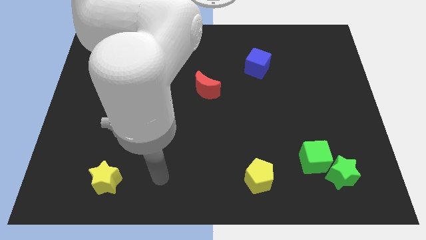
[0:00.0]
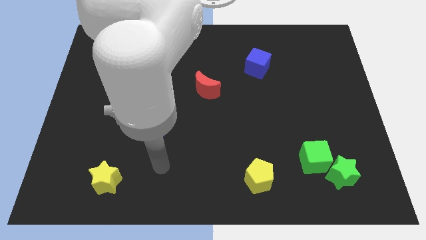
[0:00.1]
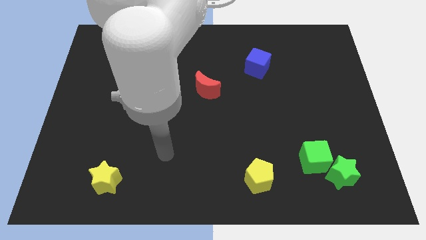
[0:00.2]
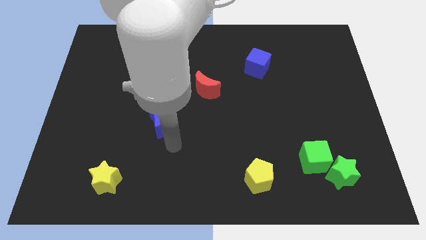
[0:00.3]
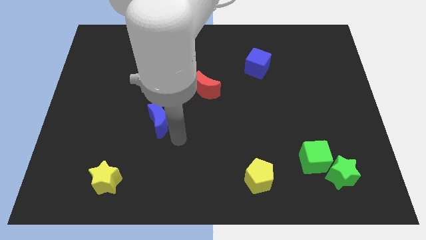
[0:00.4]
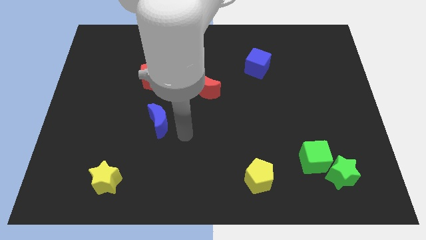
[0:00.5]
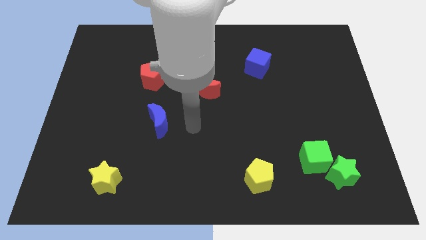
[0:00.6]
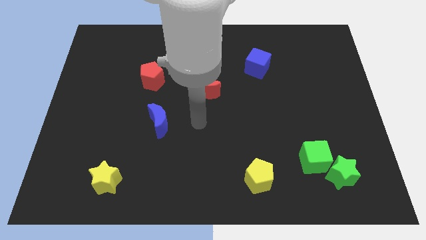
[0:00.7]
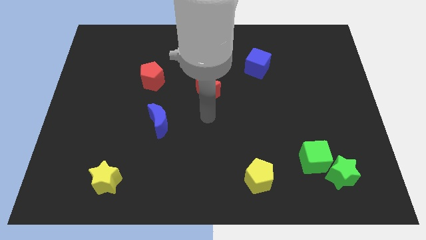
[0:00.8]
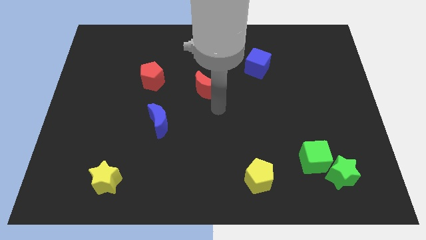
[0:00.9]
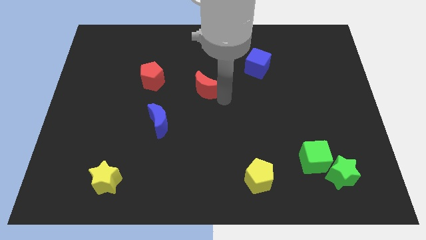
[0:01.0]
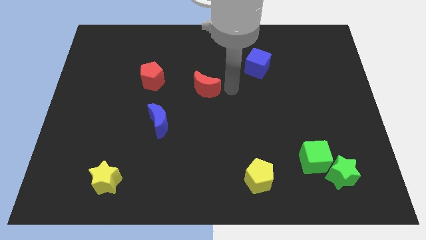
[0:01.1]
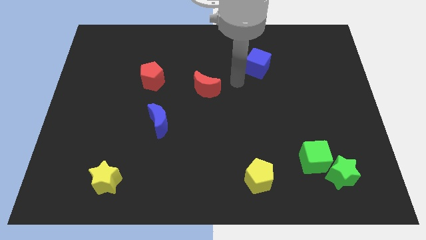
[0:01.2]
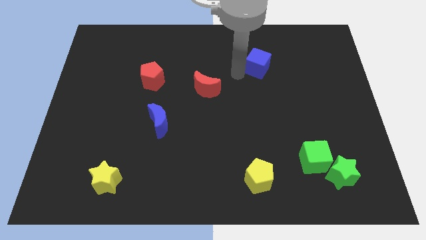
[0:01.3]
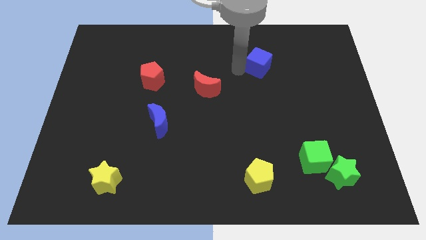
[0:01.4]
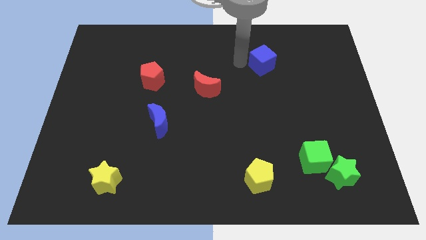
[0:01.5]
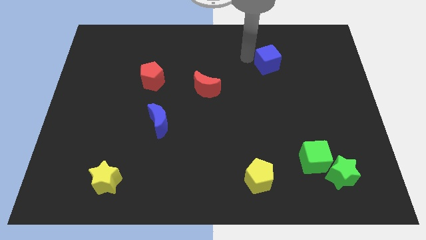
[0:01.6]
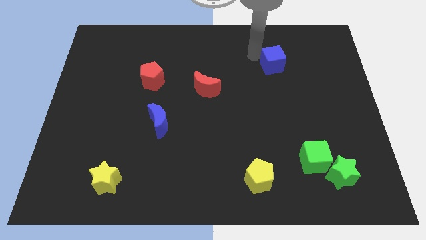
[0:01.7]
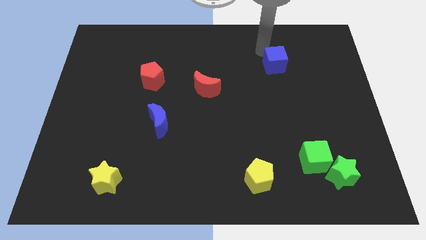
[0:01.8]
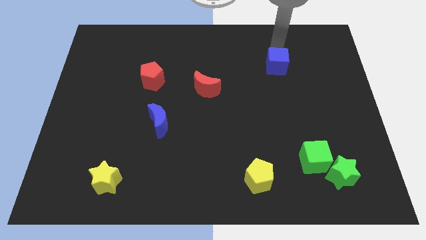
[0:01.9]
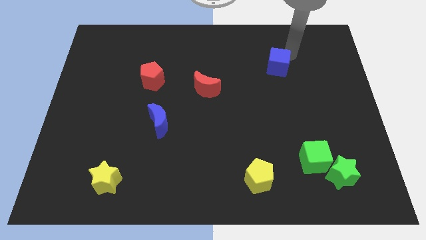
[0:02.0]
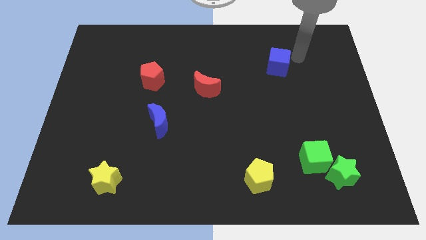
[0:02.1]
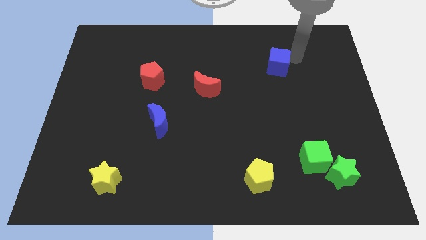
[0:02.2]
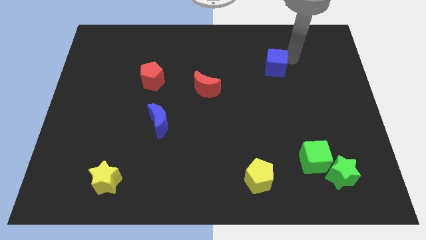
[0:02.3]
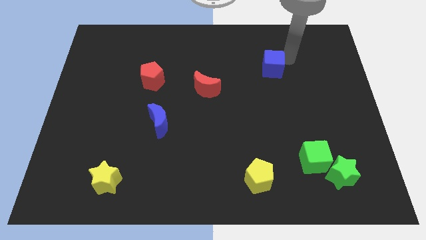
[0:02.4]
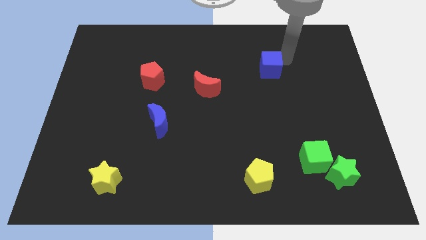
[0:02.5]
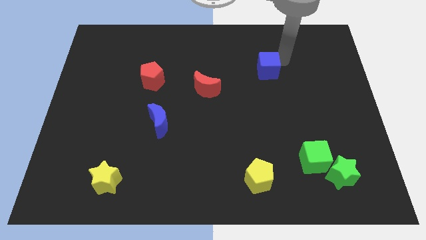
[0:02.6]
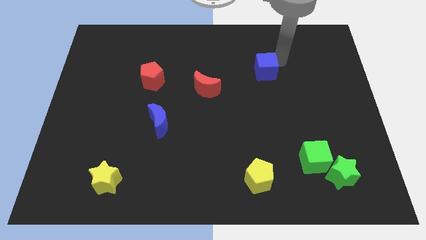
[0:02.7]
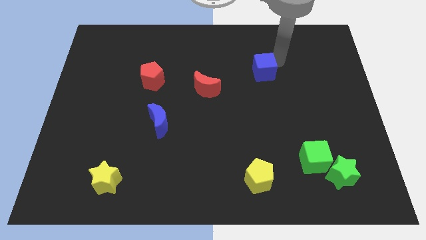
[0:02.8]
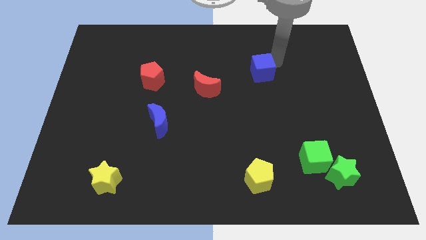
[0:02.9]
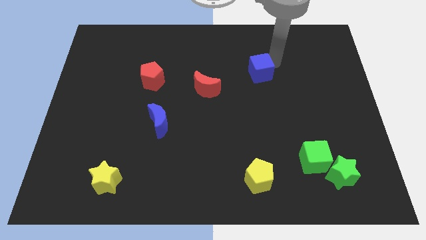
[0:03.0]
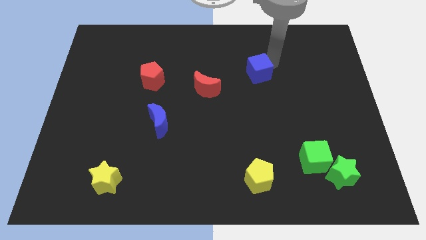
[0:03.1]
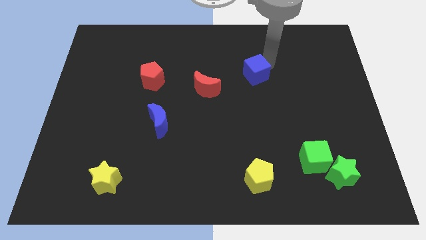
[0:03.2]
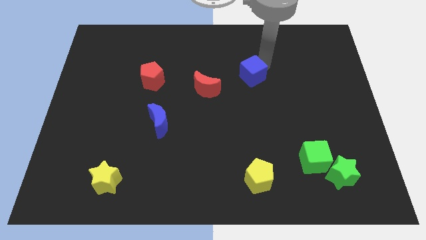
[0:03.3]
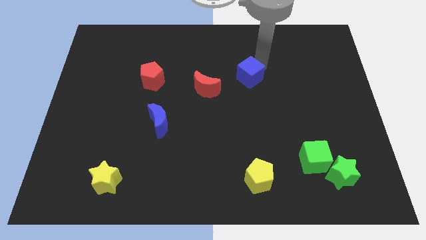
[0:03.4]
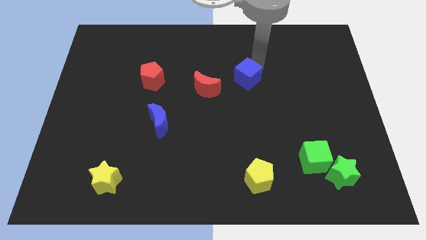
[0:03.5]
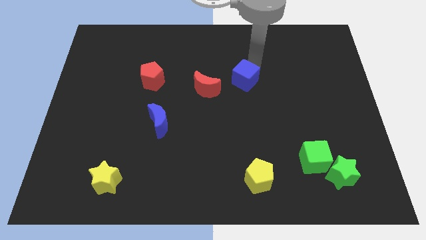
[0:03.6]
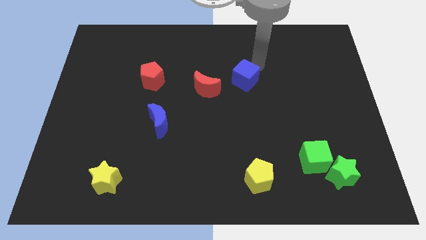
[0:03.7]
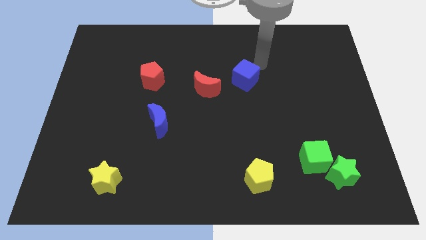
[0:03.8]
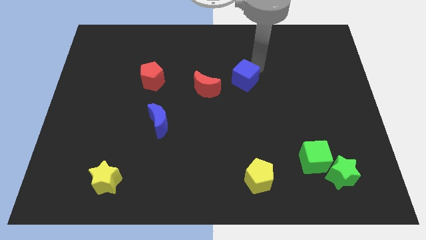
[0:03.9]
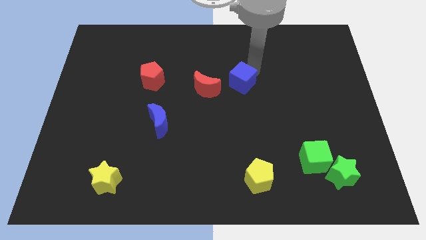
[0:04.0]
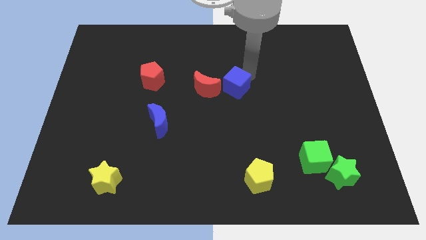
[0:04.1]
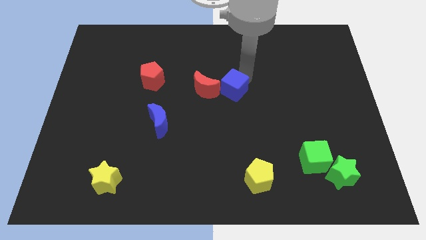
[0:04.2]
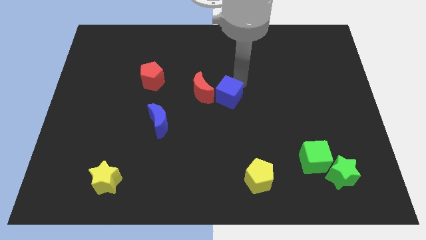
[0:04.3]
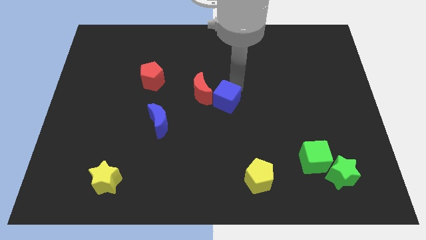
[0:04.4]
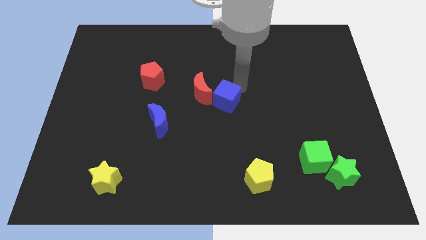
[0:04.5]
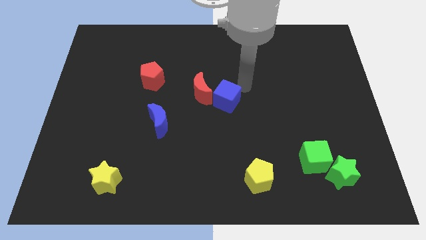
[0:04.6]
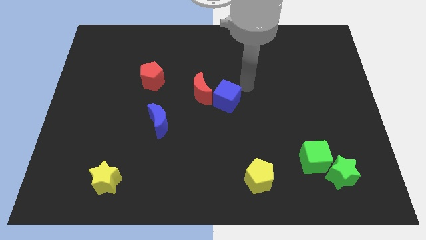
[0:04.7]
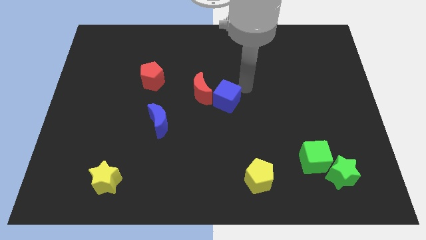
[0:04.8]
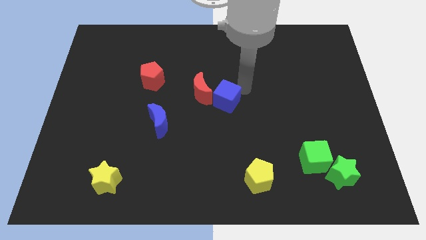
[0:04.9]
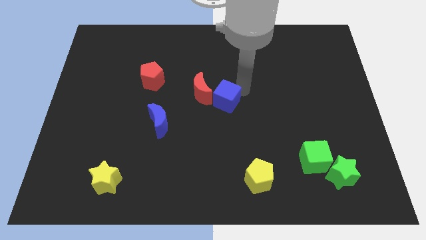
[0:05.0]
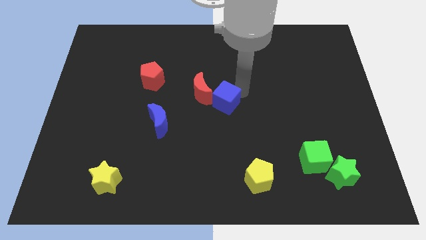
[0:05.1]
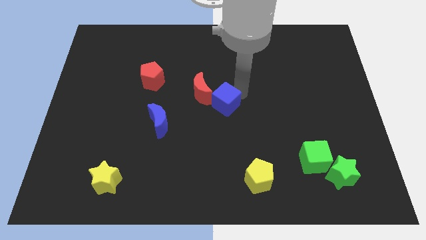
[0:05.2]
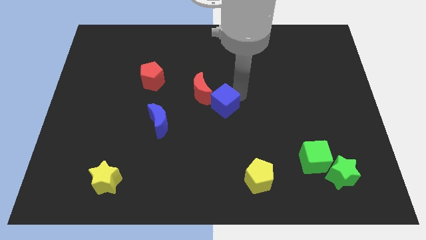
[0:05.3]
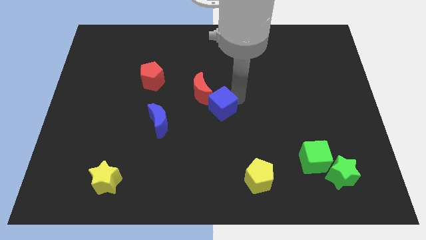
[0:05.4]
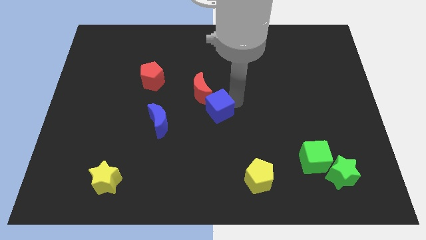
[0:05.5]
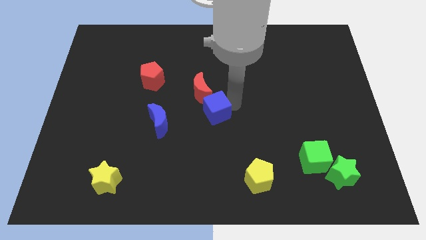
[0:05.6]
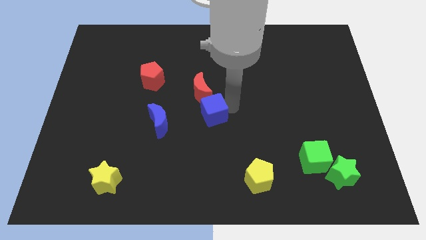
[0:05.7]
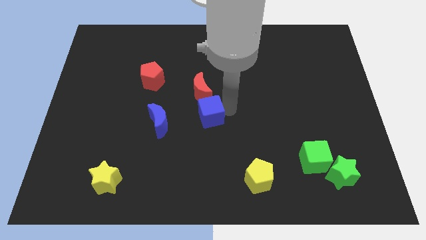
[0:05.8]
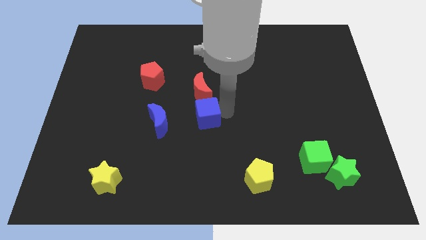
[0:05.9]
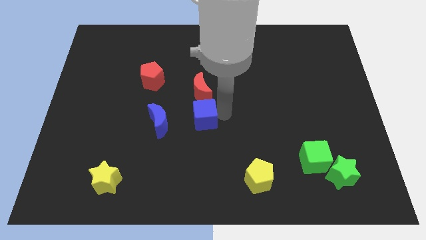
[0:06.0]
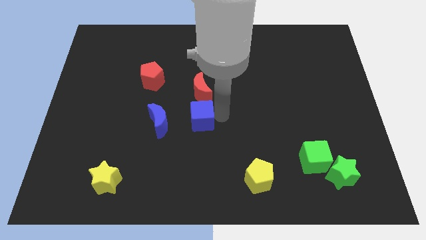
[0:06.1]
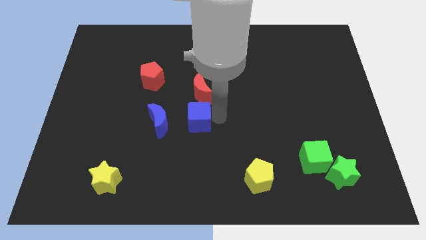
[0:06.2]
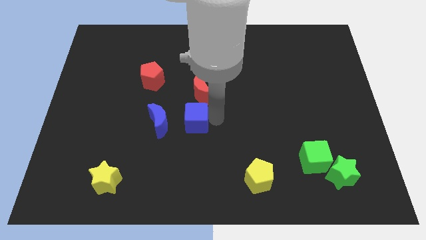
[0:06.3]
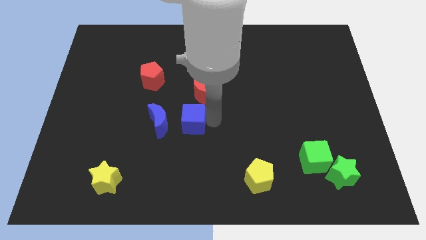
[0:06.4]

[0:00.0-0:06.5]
move the blue cube diagonally down and to the left of the red moon

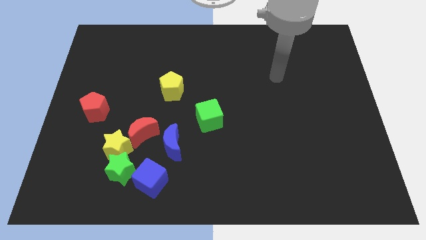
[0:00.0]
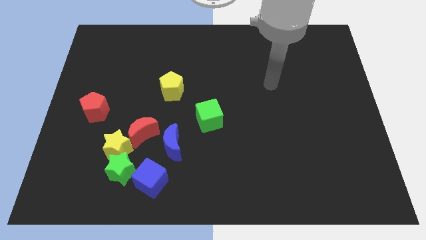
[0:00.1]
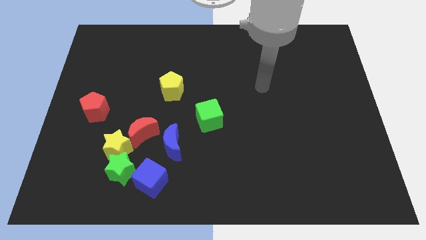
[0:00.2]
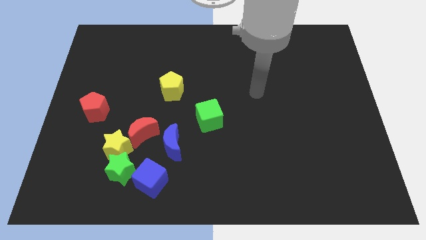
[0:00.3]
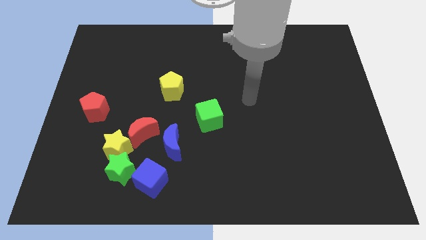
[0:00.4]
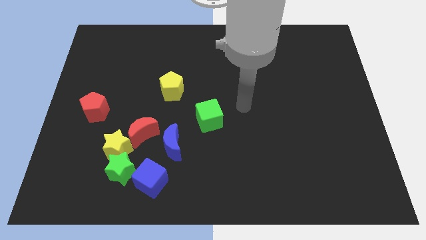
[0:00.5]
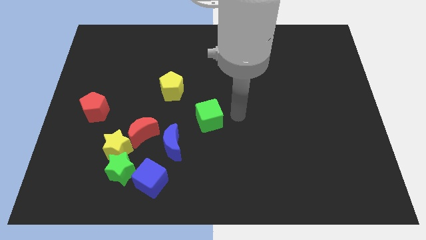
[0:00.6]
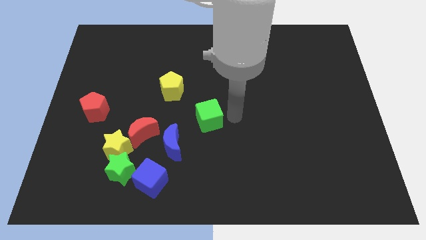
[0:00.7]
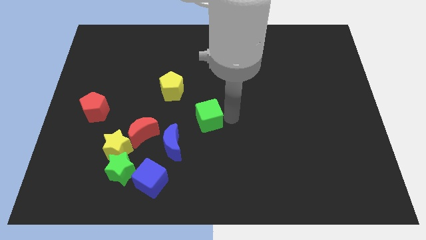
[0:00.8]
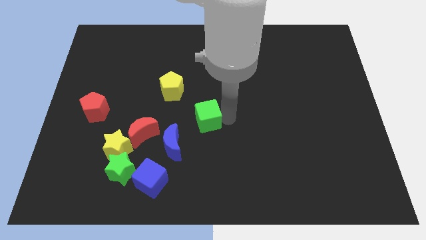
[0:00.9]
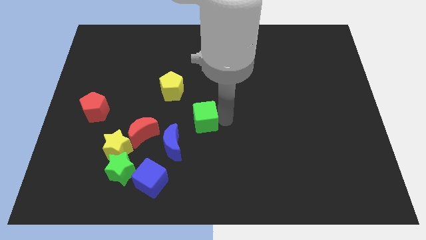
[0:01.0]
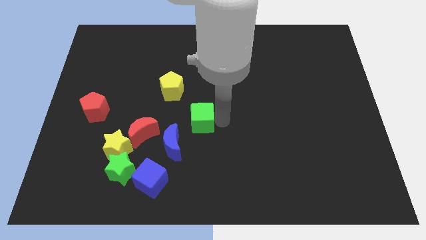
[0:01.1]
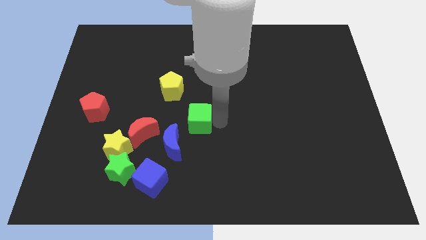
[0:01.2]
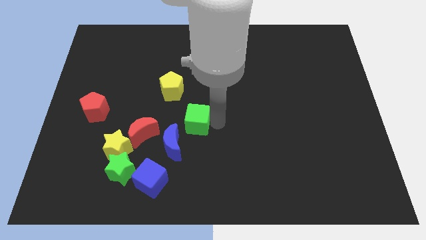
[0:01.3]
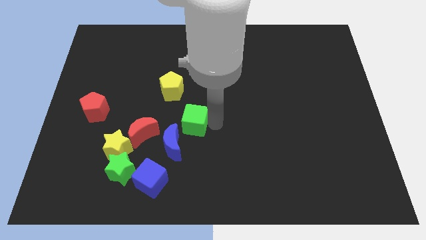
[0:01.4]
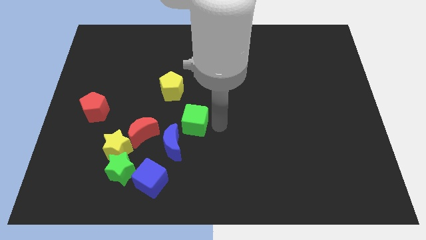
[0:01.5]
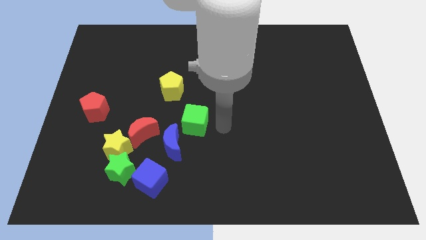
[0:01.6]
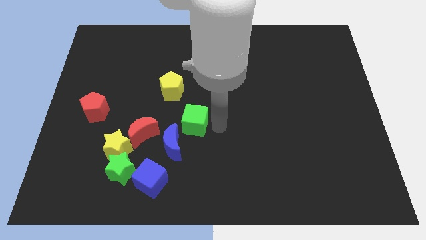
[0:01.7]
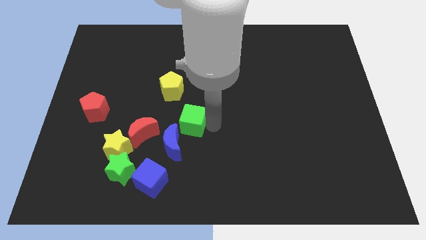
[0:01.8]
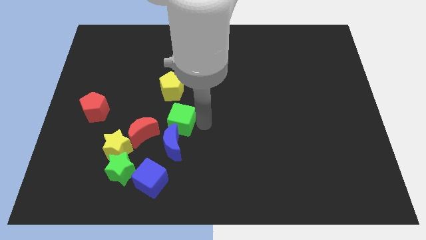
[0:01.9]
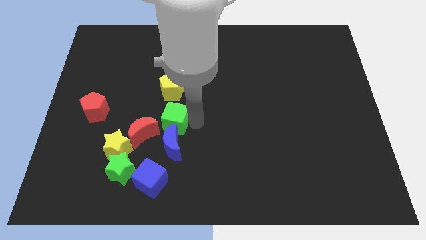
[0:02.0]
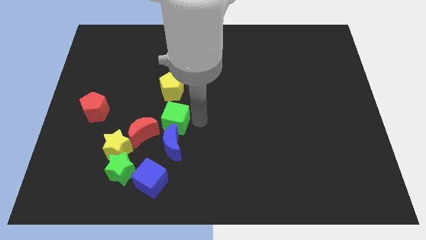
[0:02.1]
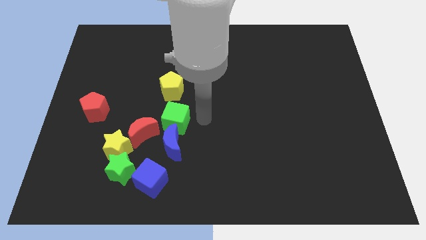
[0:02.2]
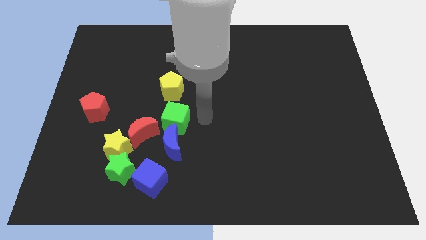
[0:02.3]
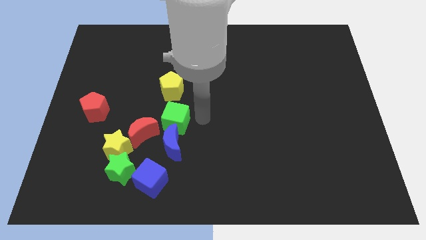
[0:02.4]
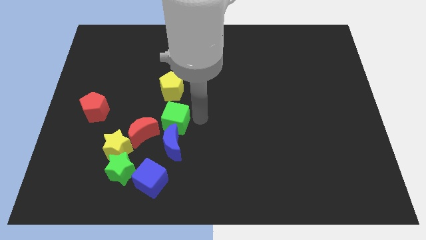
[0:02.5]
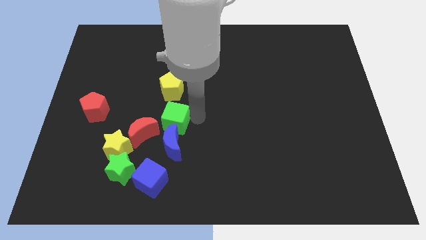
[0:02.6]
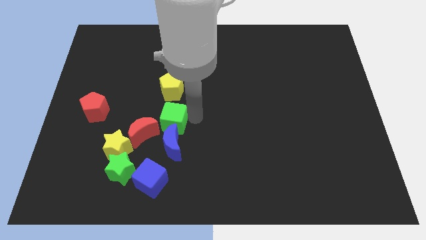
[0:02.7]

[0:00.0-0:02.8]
slide the green cube to the top of the blue cube
